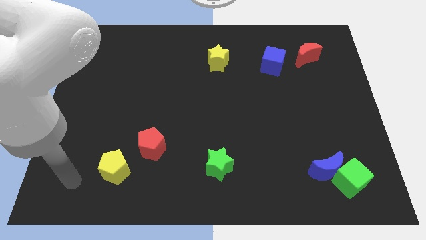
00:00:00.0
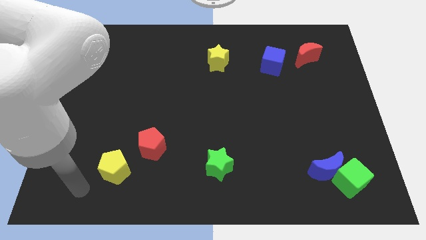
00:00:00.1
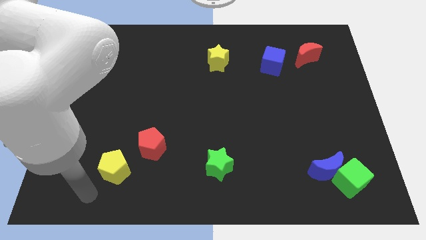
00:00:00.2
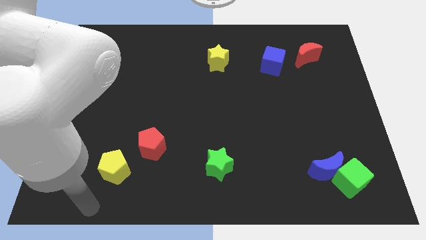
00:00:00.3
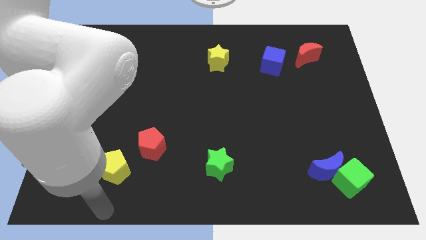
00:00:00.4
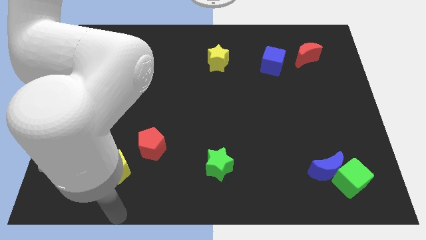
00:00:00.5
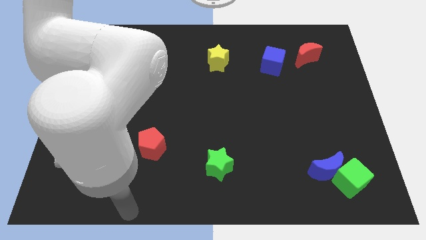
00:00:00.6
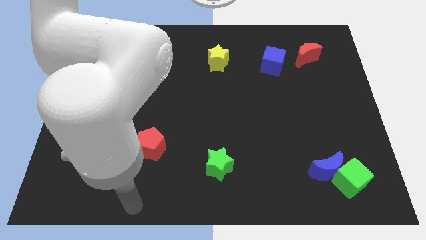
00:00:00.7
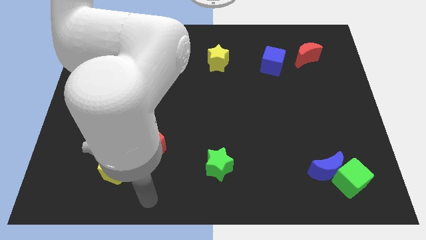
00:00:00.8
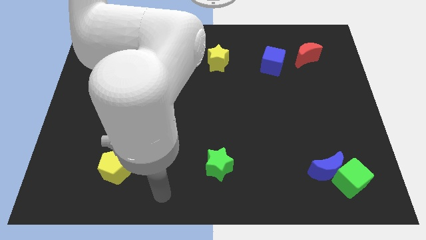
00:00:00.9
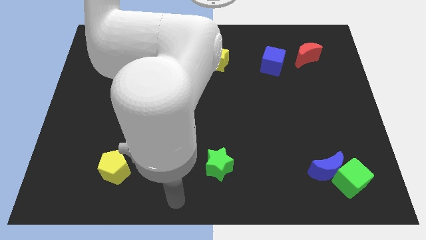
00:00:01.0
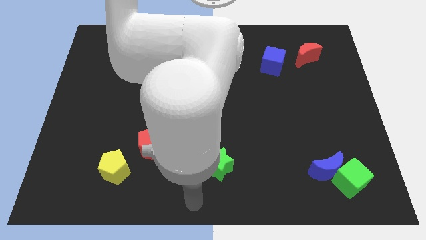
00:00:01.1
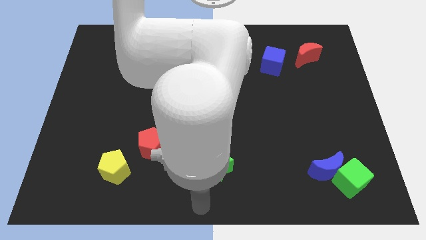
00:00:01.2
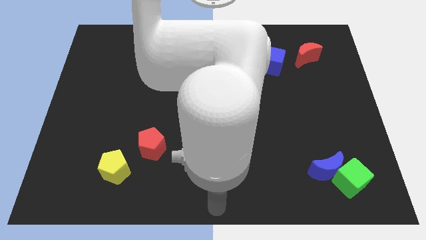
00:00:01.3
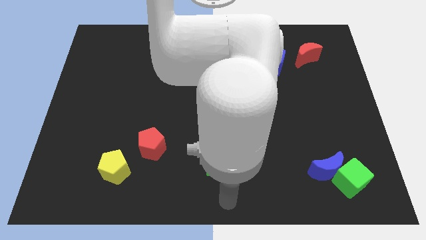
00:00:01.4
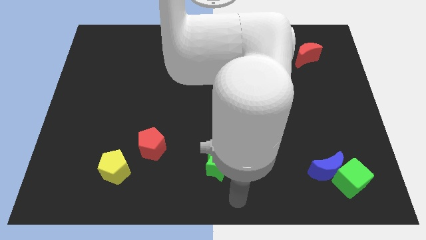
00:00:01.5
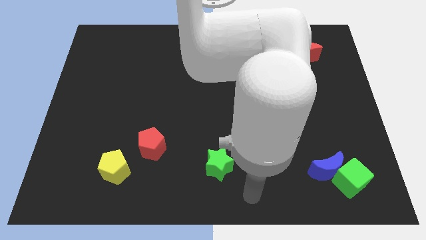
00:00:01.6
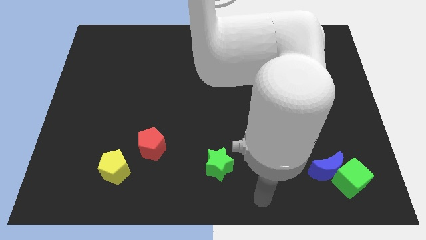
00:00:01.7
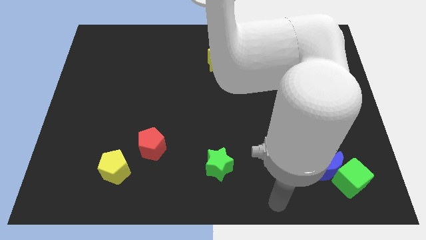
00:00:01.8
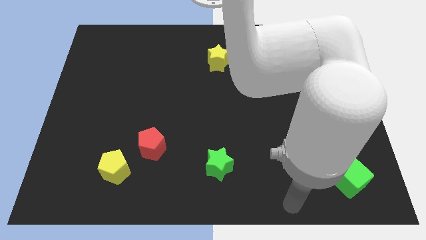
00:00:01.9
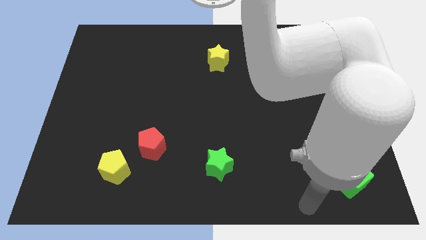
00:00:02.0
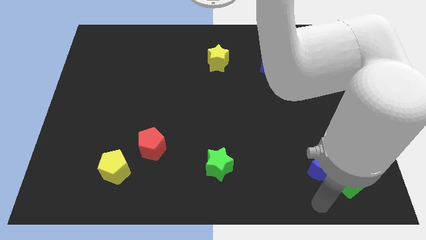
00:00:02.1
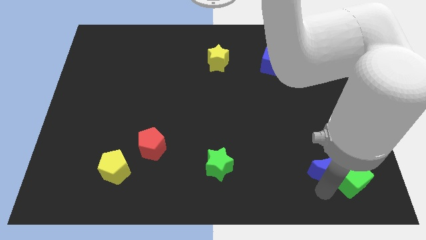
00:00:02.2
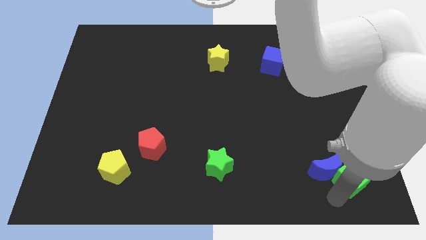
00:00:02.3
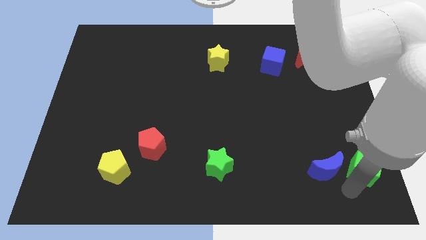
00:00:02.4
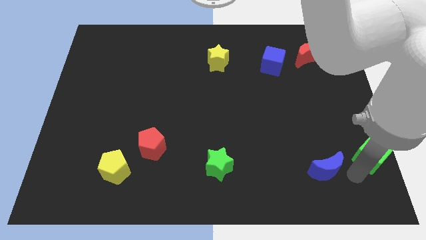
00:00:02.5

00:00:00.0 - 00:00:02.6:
move the blue moon away from the green cube

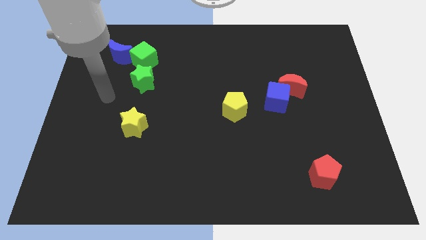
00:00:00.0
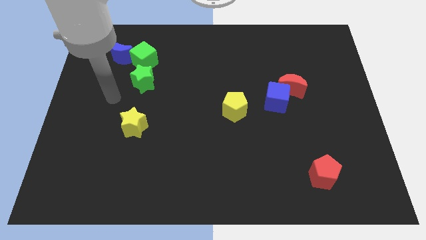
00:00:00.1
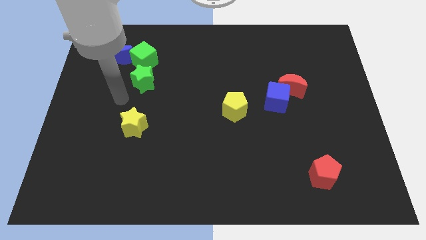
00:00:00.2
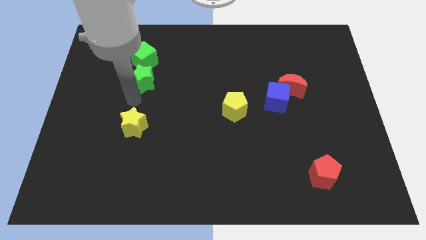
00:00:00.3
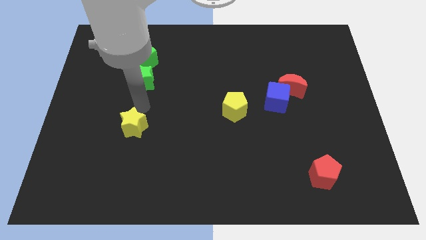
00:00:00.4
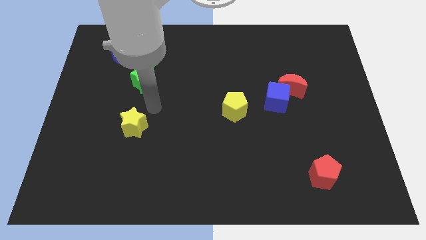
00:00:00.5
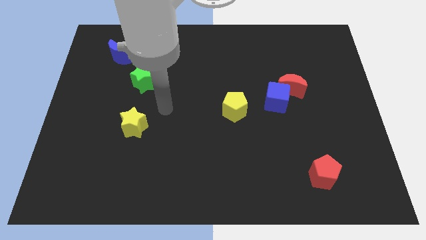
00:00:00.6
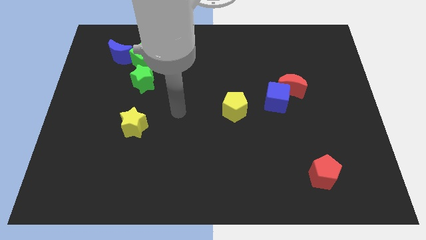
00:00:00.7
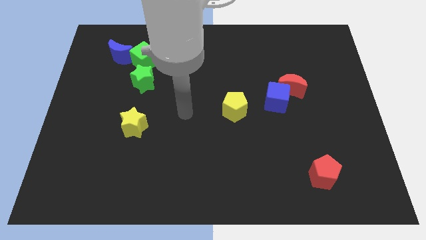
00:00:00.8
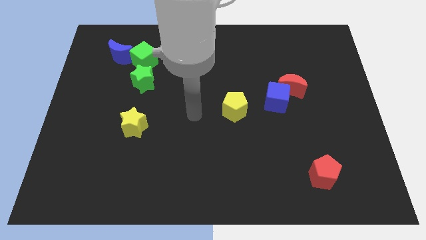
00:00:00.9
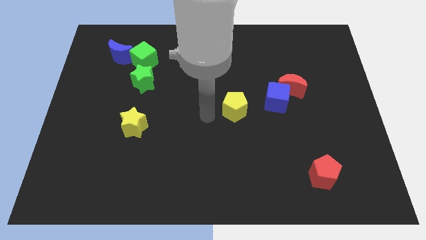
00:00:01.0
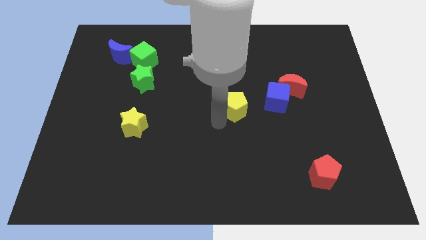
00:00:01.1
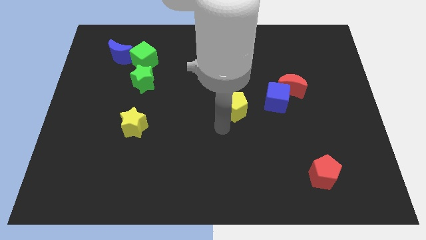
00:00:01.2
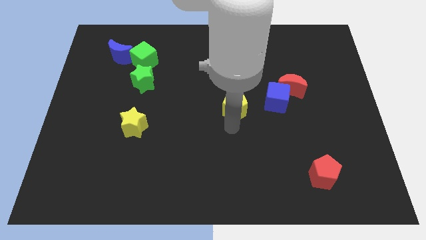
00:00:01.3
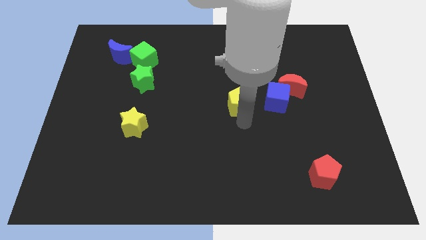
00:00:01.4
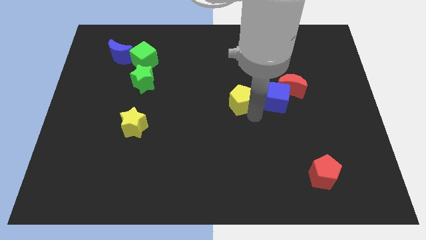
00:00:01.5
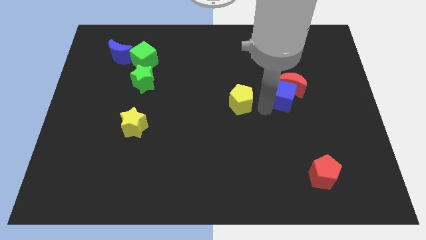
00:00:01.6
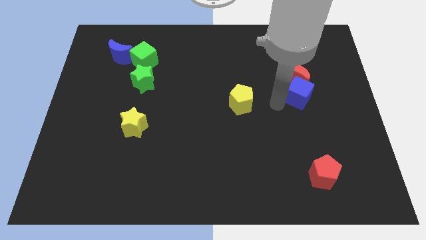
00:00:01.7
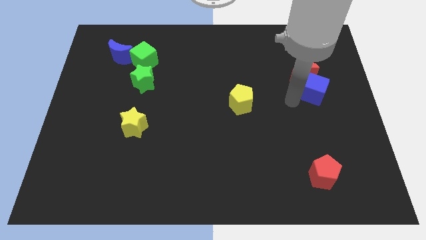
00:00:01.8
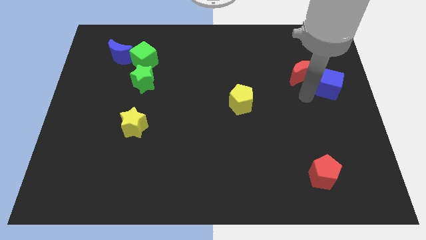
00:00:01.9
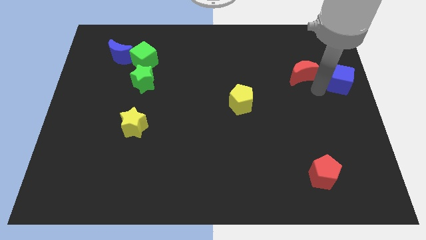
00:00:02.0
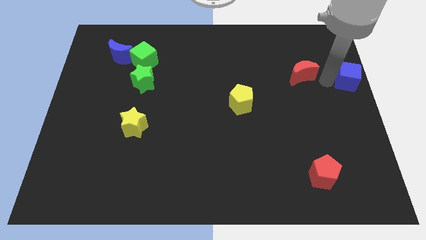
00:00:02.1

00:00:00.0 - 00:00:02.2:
move the red moon away from the blue cube

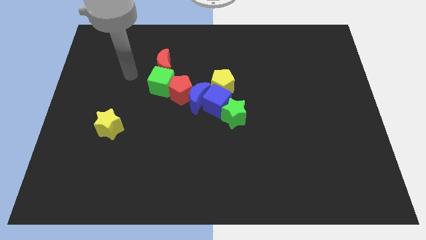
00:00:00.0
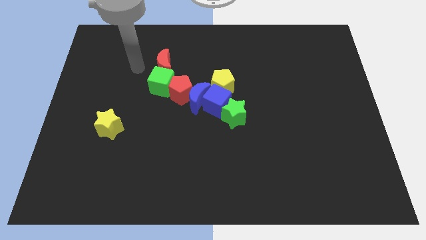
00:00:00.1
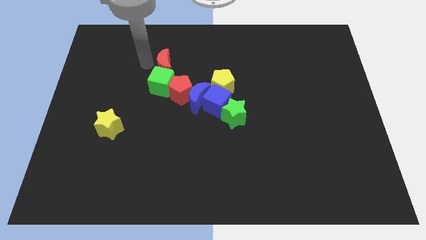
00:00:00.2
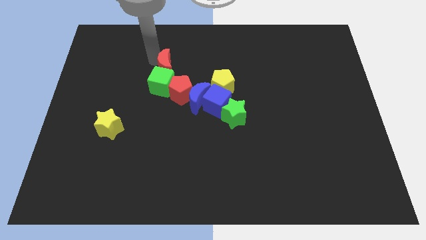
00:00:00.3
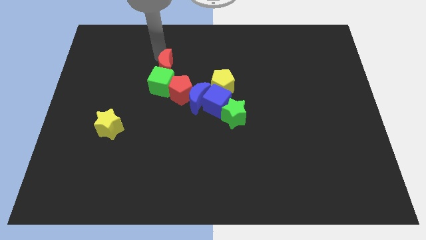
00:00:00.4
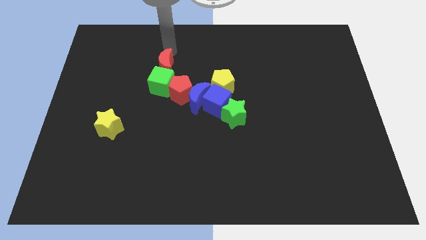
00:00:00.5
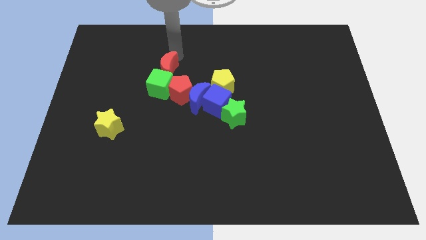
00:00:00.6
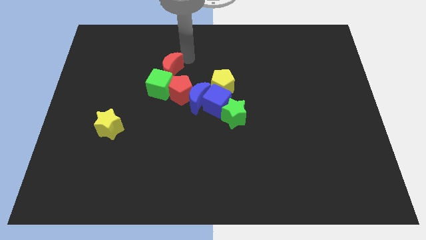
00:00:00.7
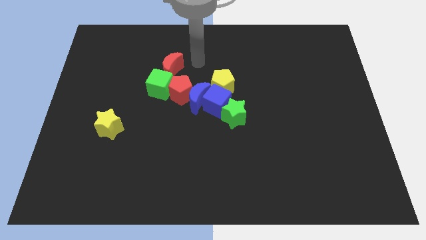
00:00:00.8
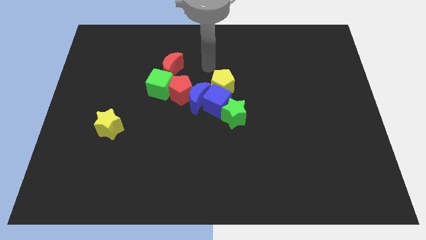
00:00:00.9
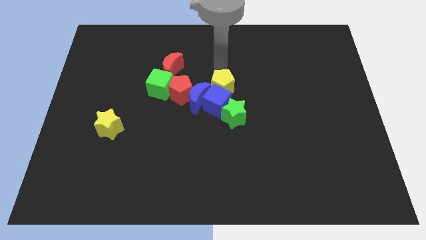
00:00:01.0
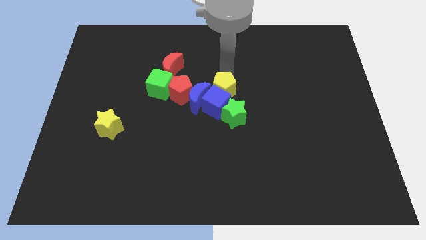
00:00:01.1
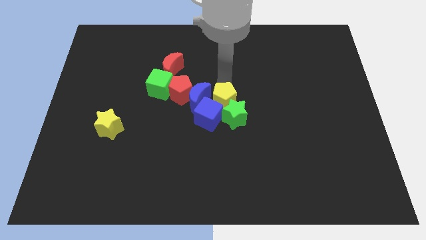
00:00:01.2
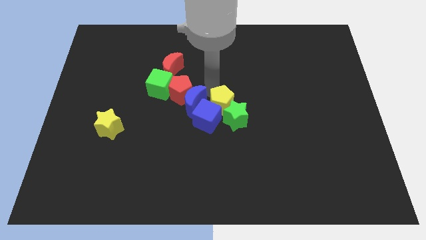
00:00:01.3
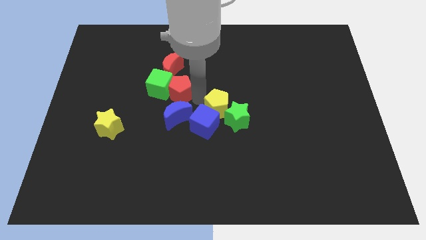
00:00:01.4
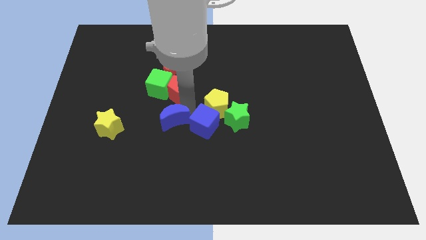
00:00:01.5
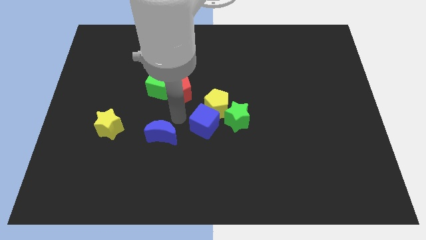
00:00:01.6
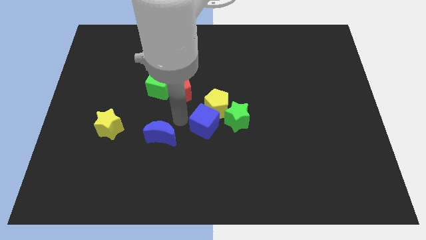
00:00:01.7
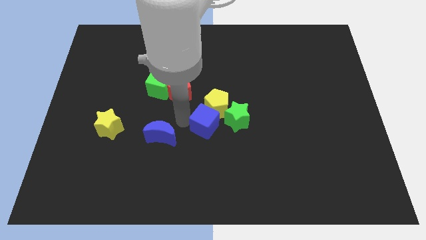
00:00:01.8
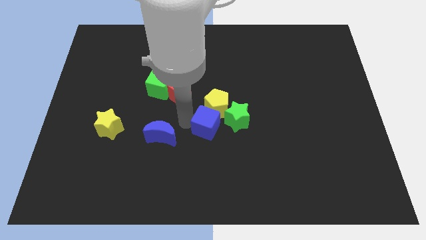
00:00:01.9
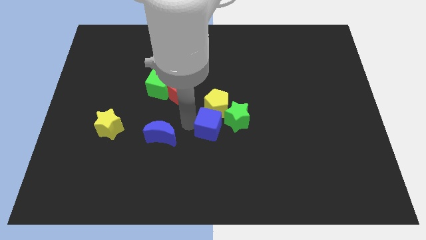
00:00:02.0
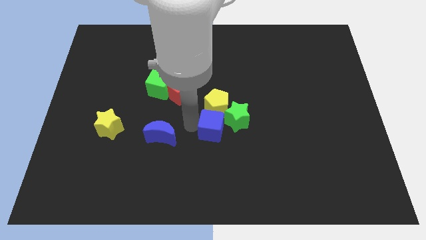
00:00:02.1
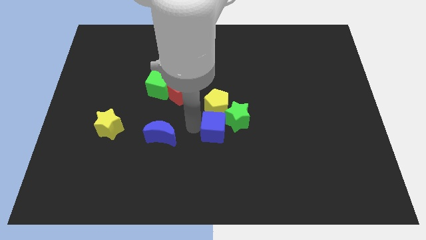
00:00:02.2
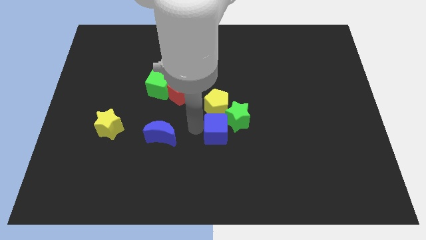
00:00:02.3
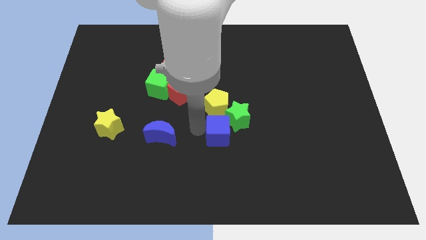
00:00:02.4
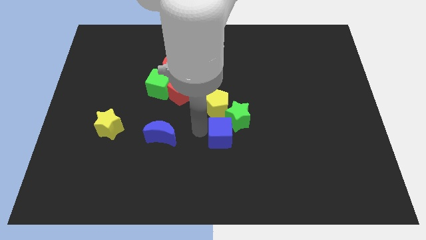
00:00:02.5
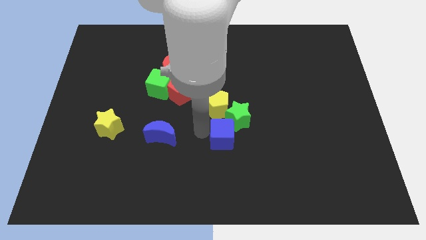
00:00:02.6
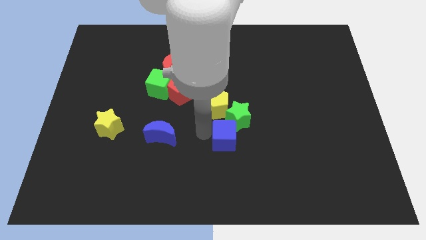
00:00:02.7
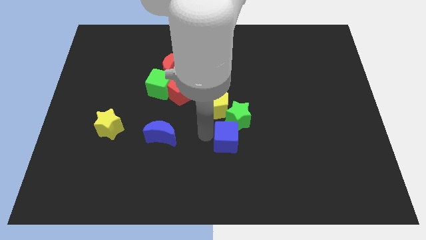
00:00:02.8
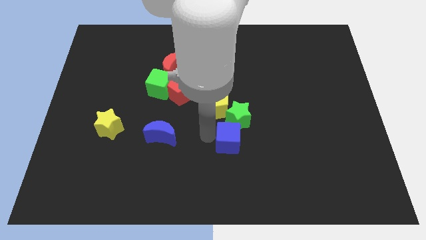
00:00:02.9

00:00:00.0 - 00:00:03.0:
separate the blue cube from the group of blocks

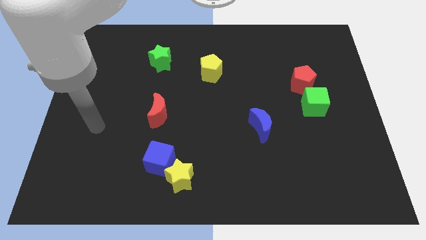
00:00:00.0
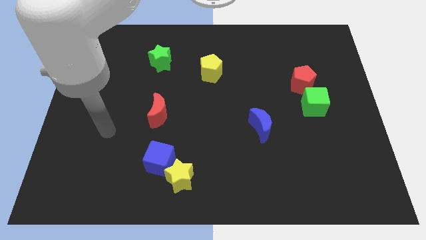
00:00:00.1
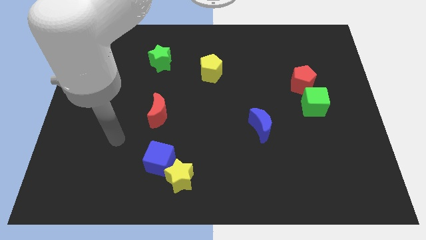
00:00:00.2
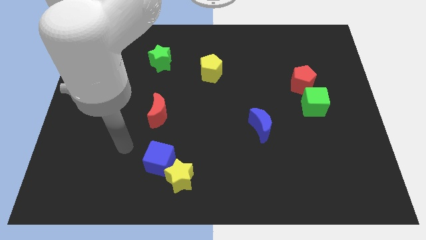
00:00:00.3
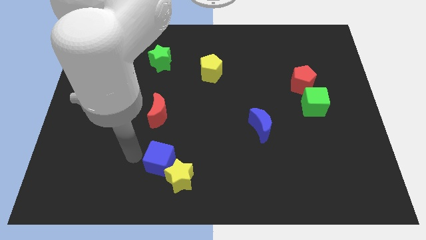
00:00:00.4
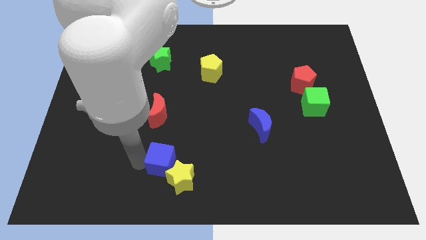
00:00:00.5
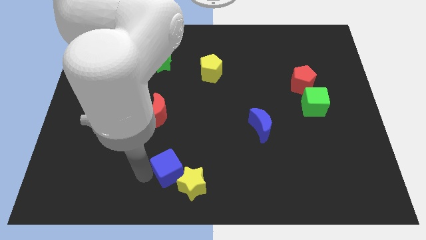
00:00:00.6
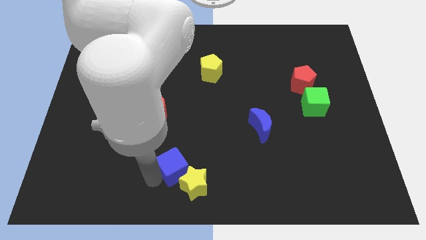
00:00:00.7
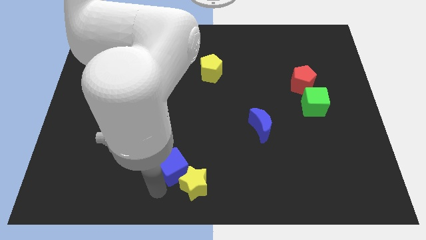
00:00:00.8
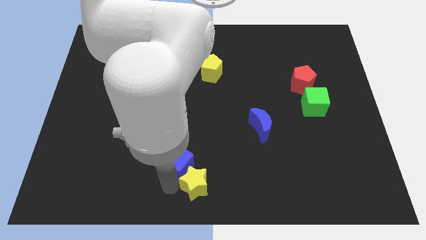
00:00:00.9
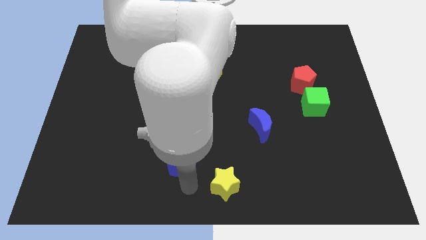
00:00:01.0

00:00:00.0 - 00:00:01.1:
separate the blue cube from the yellow star

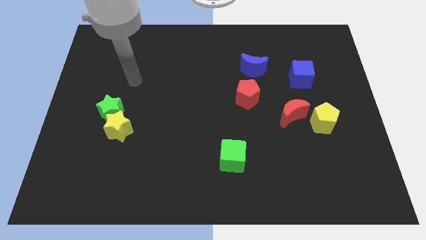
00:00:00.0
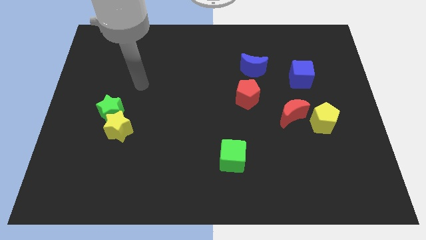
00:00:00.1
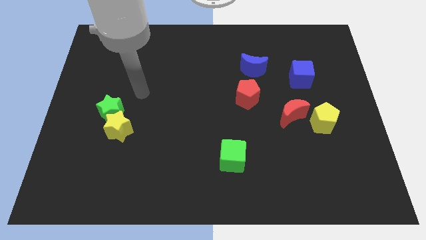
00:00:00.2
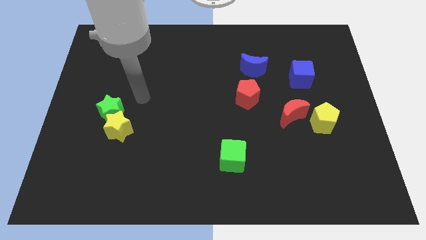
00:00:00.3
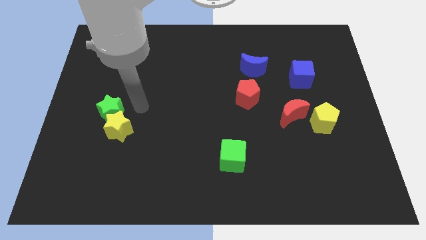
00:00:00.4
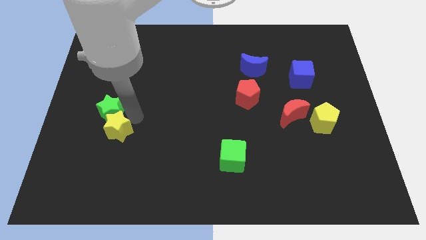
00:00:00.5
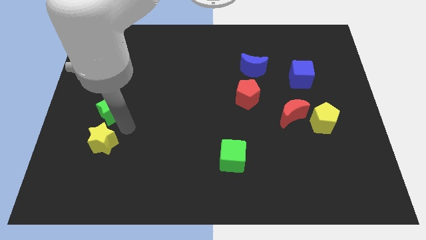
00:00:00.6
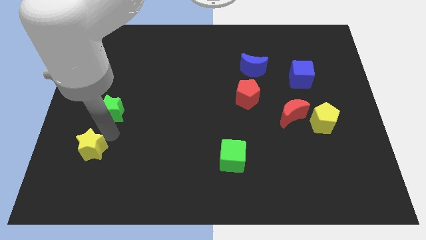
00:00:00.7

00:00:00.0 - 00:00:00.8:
pull the green star apart from the yellow star
